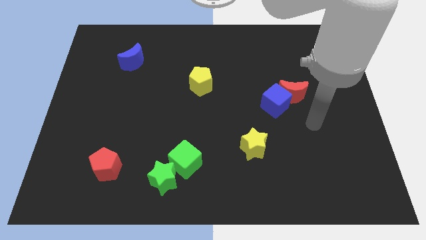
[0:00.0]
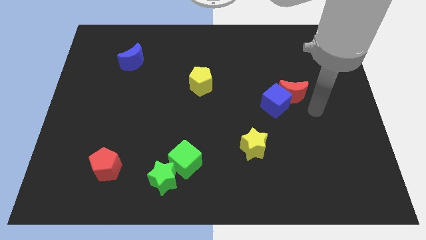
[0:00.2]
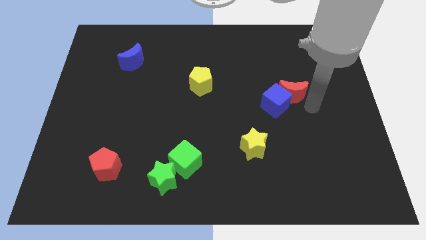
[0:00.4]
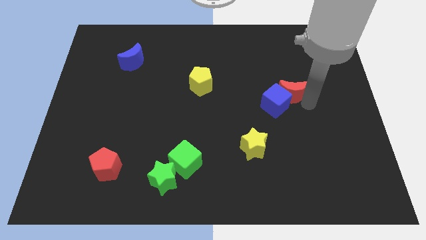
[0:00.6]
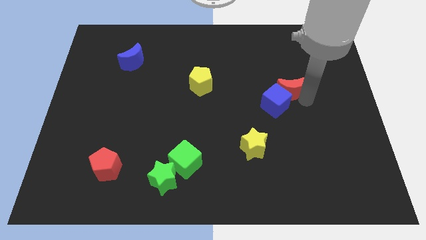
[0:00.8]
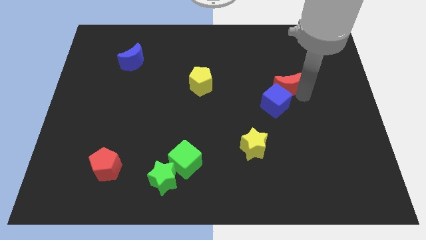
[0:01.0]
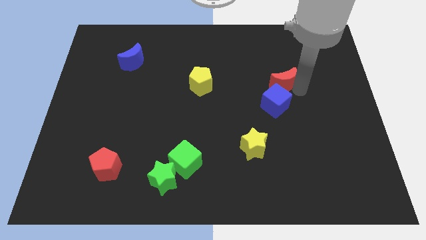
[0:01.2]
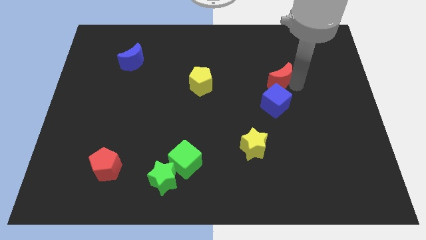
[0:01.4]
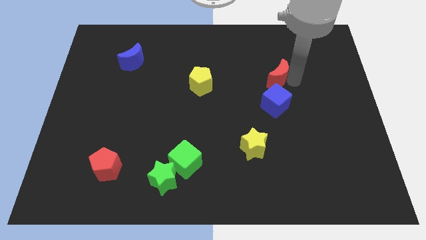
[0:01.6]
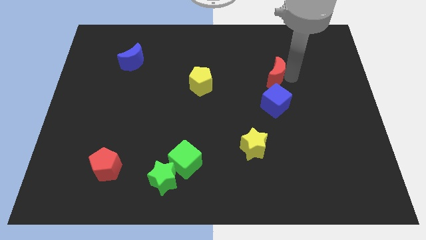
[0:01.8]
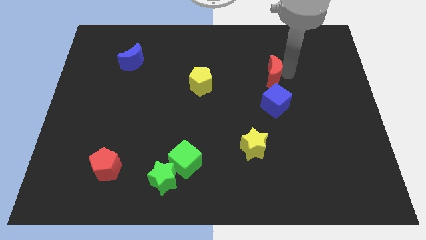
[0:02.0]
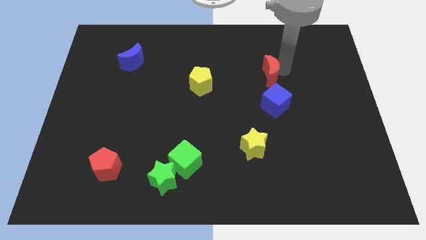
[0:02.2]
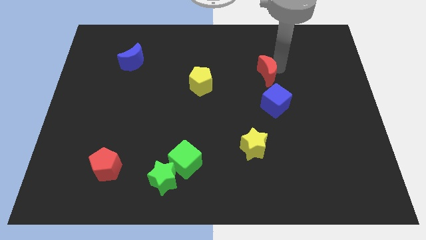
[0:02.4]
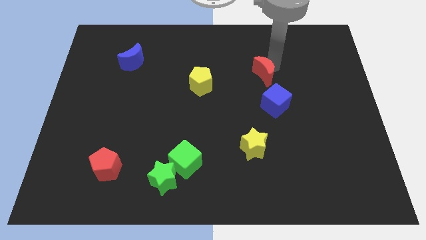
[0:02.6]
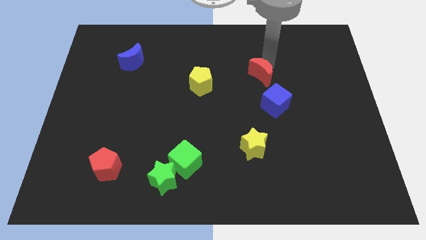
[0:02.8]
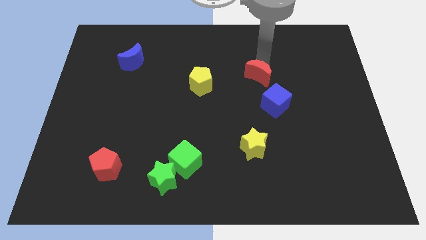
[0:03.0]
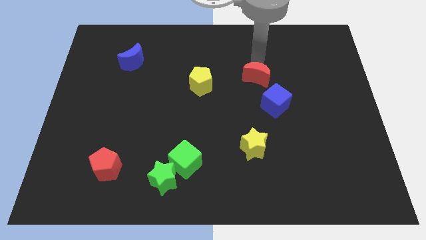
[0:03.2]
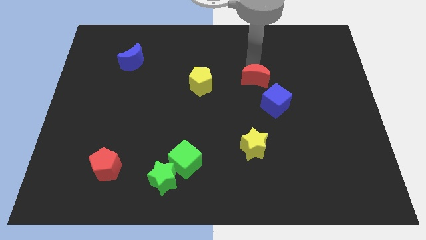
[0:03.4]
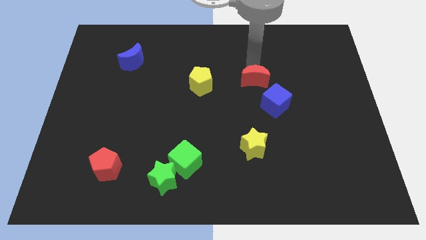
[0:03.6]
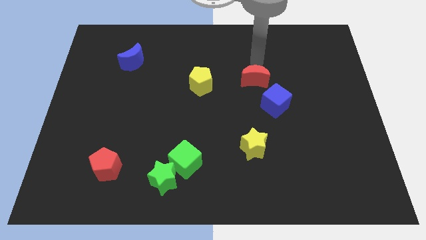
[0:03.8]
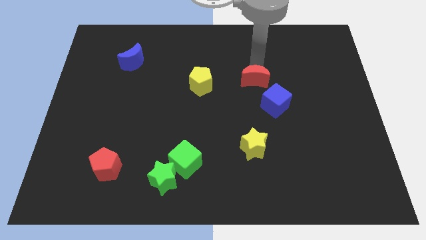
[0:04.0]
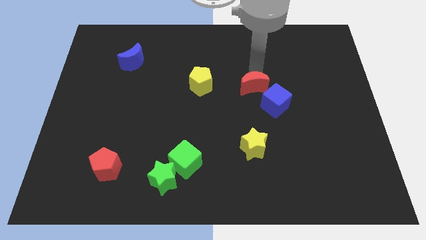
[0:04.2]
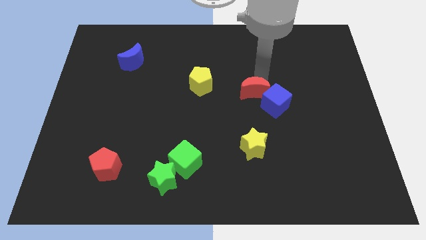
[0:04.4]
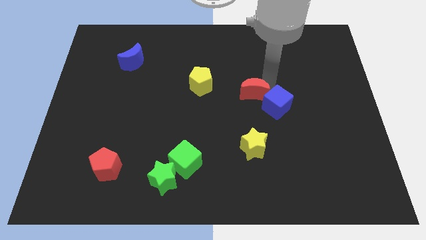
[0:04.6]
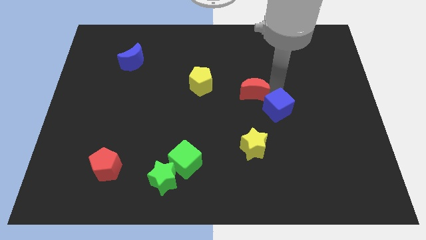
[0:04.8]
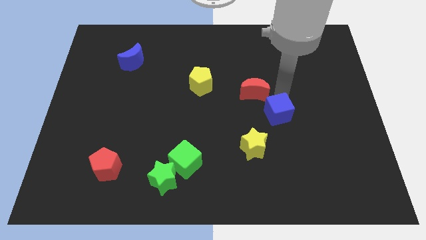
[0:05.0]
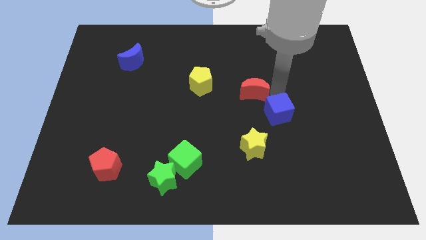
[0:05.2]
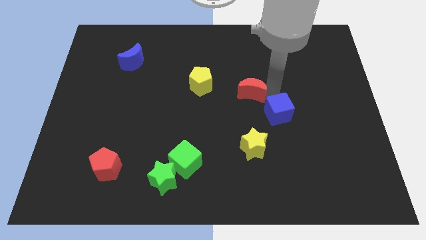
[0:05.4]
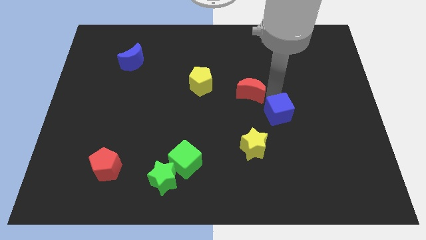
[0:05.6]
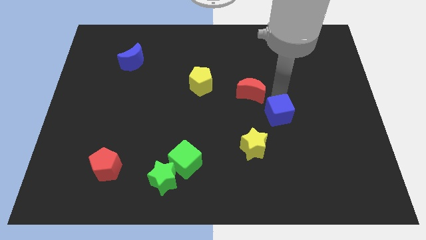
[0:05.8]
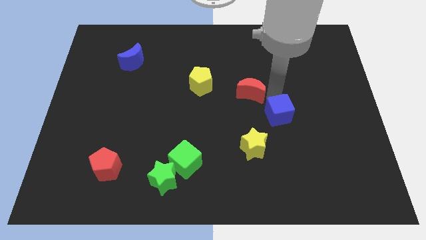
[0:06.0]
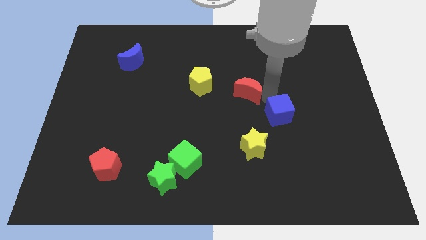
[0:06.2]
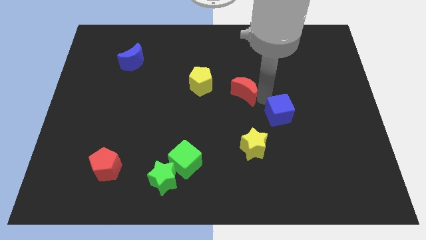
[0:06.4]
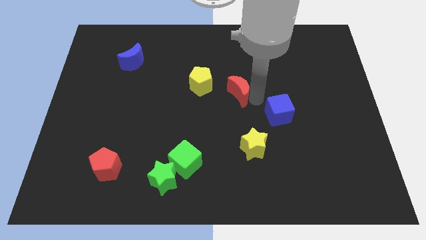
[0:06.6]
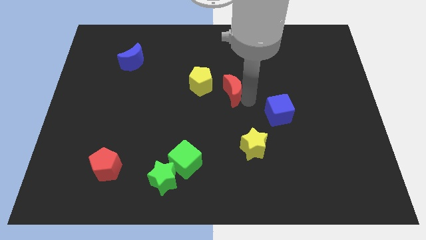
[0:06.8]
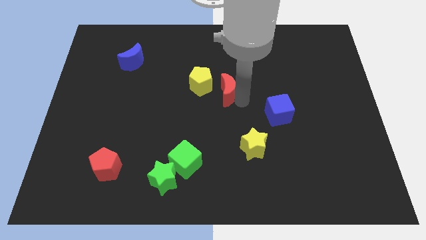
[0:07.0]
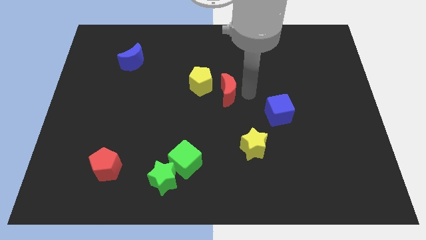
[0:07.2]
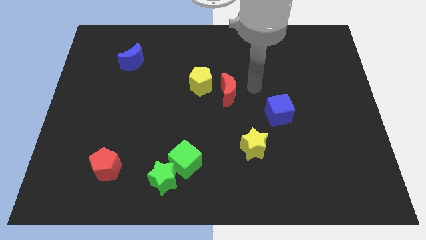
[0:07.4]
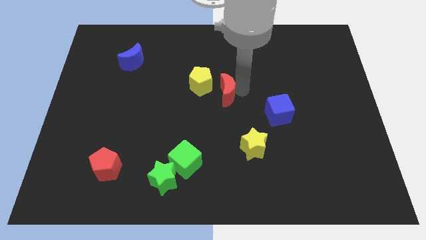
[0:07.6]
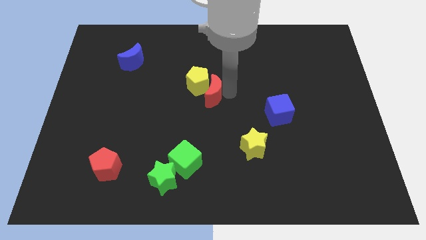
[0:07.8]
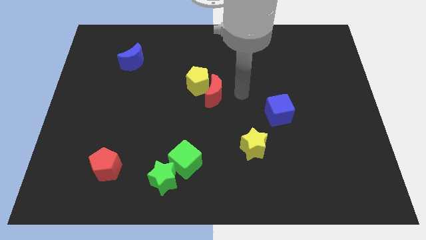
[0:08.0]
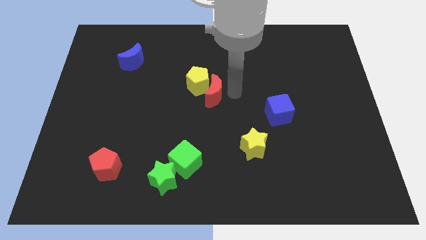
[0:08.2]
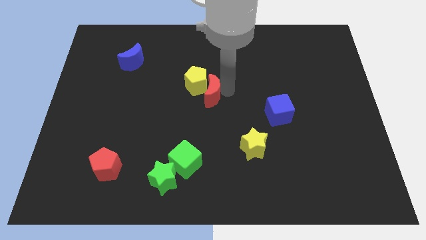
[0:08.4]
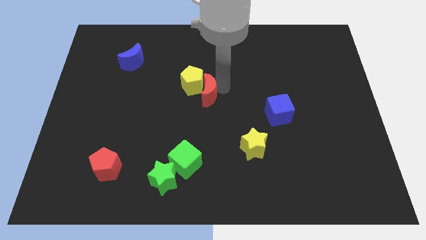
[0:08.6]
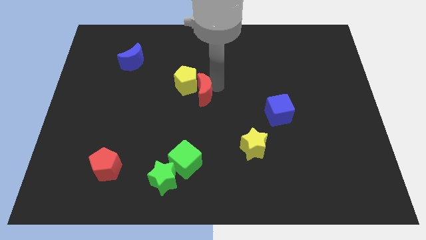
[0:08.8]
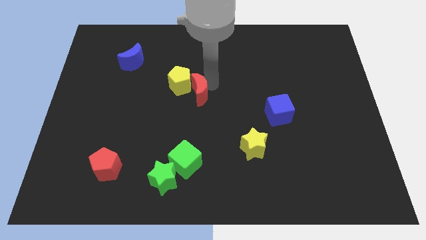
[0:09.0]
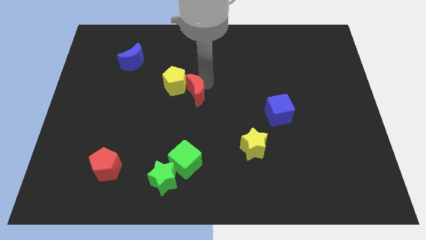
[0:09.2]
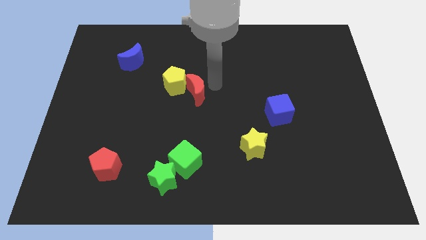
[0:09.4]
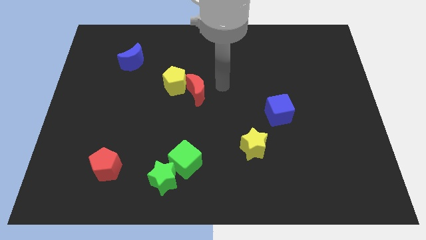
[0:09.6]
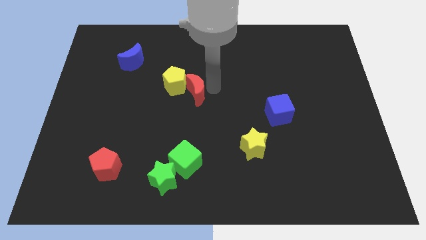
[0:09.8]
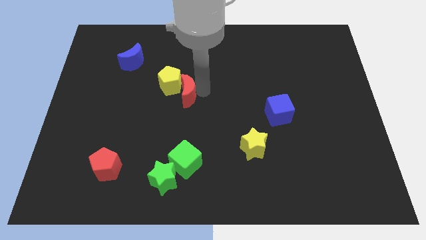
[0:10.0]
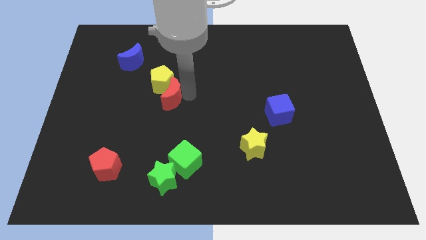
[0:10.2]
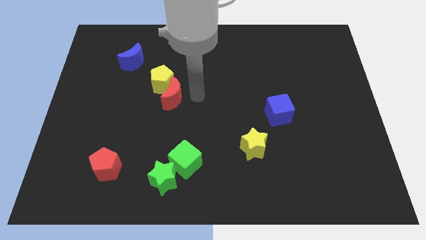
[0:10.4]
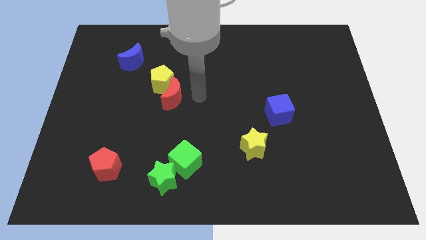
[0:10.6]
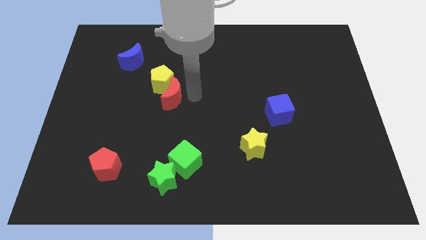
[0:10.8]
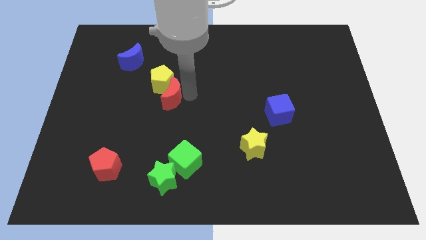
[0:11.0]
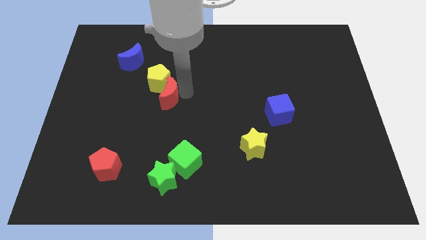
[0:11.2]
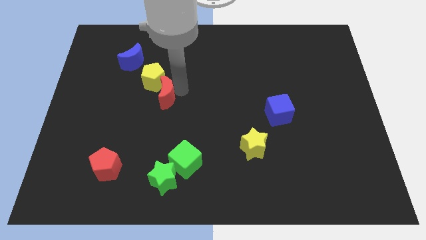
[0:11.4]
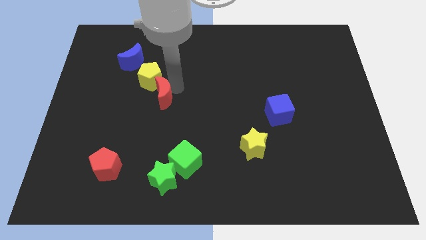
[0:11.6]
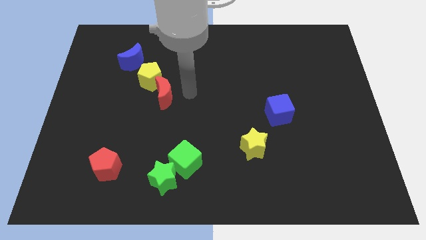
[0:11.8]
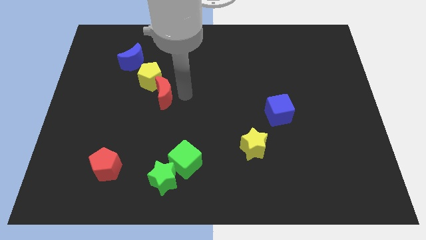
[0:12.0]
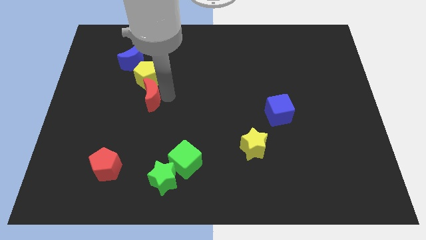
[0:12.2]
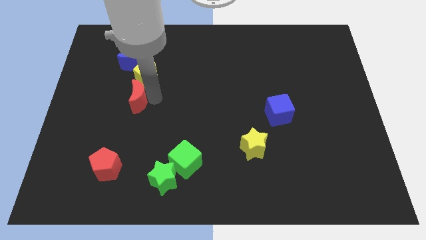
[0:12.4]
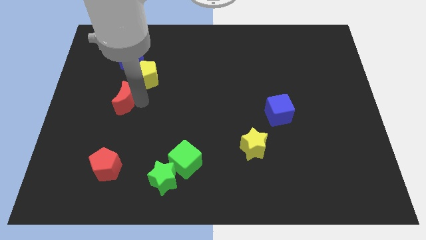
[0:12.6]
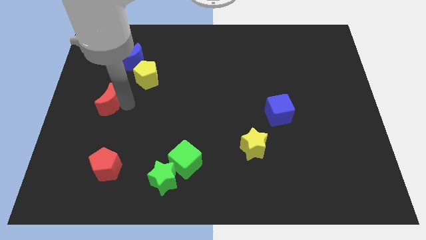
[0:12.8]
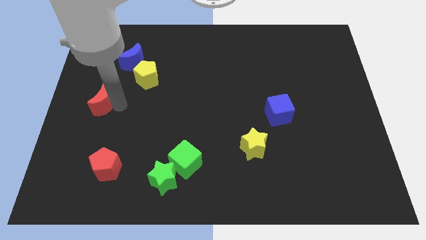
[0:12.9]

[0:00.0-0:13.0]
push the red moon to the left side
